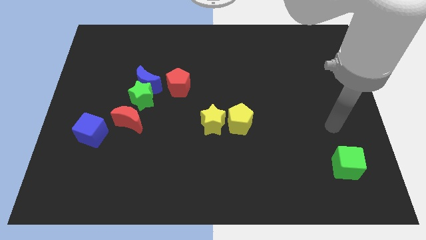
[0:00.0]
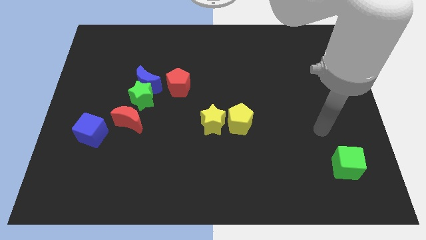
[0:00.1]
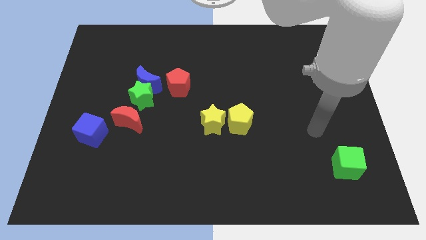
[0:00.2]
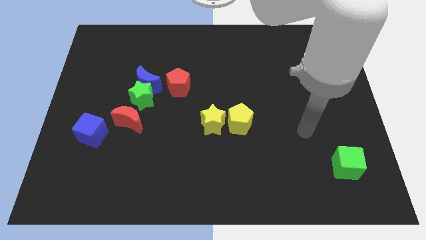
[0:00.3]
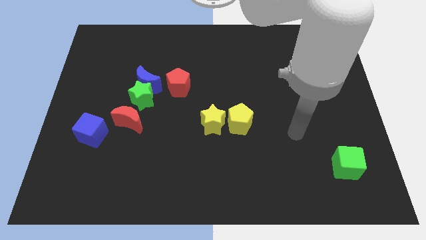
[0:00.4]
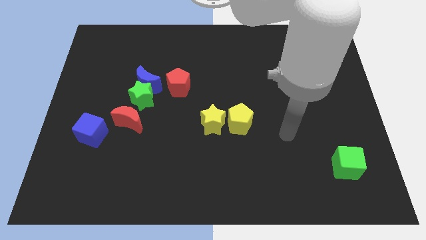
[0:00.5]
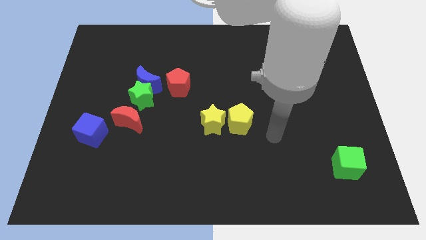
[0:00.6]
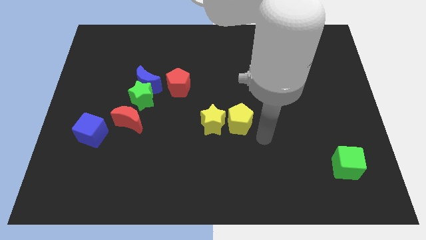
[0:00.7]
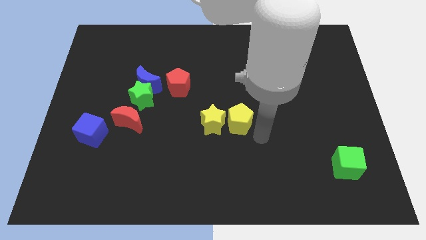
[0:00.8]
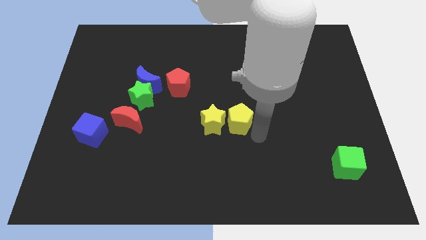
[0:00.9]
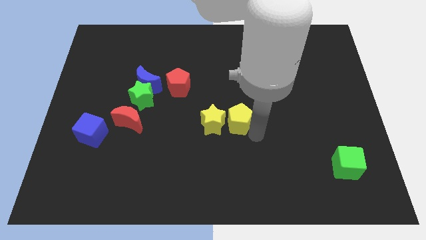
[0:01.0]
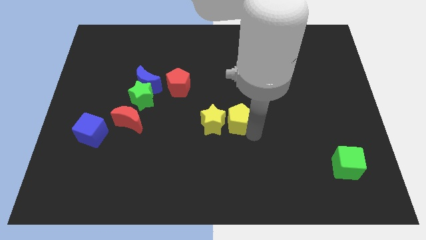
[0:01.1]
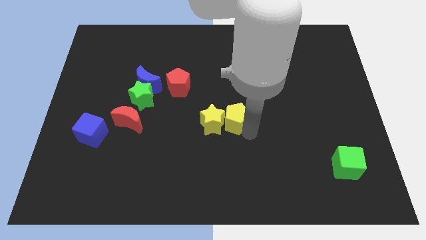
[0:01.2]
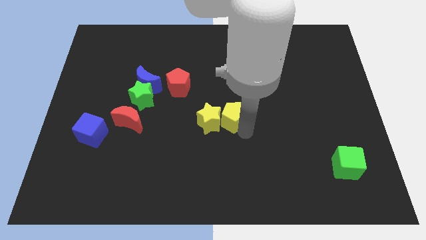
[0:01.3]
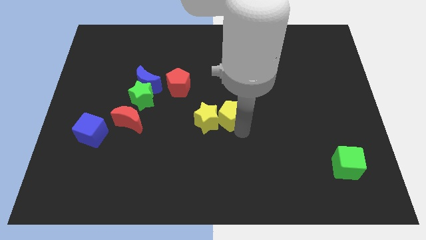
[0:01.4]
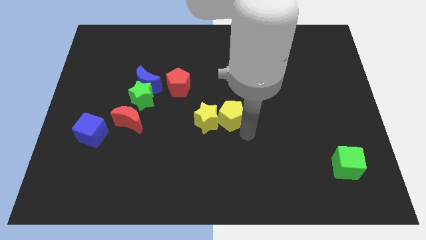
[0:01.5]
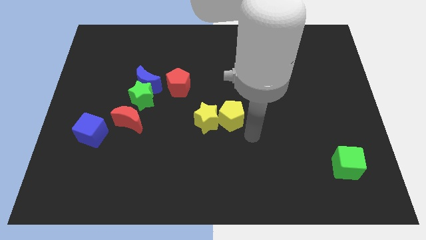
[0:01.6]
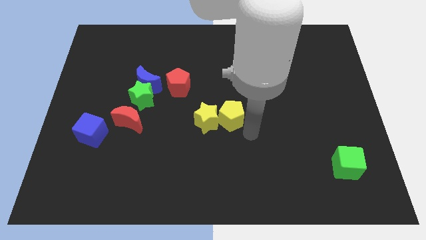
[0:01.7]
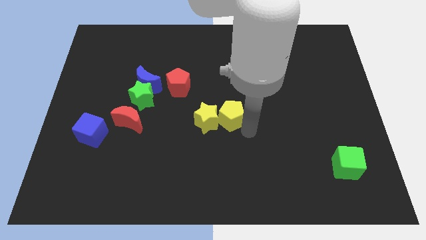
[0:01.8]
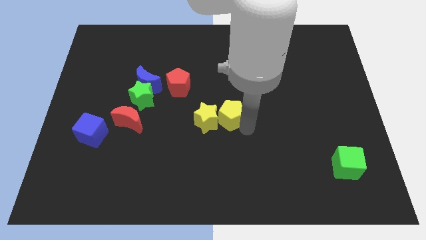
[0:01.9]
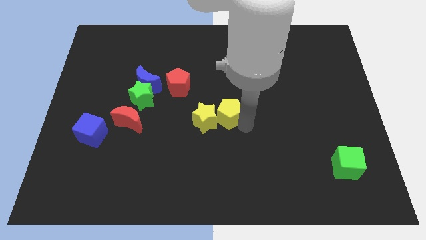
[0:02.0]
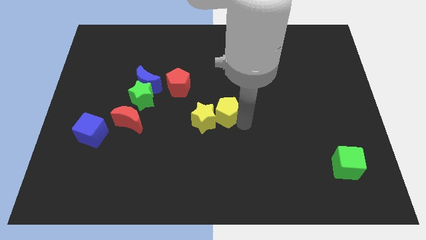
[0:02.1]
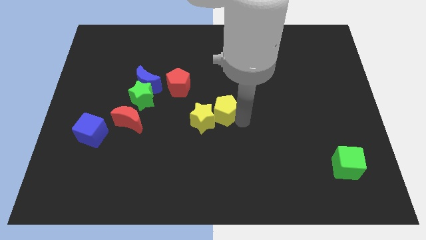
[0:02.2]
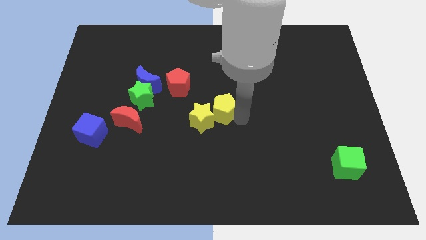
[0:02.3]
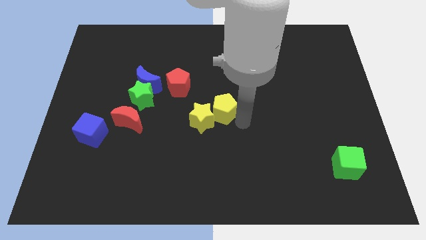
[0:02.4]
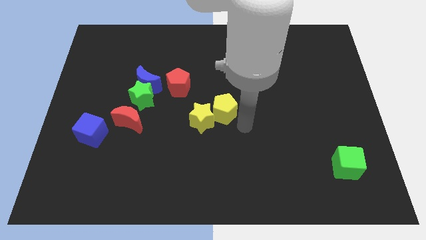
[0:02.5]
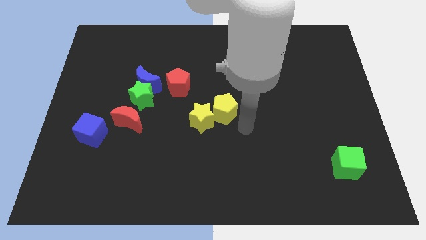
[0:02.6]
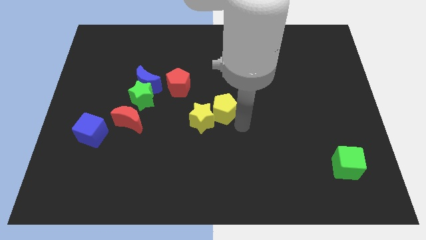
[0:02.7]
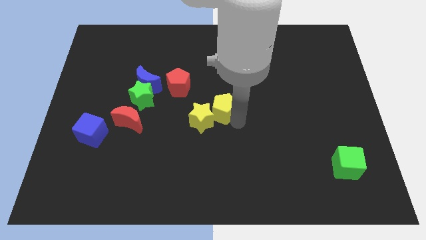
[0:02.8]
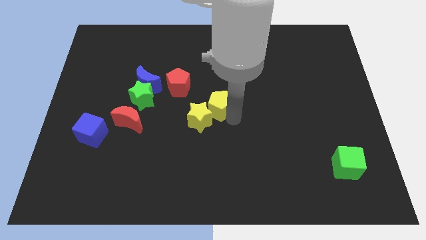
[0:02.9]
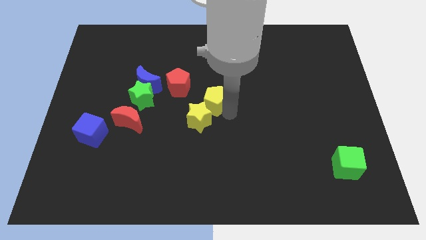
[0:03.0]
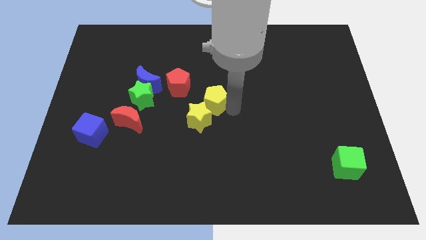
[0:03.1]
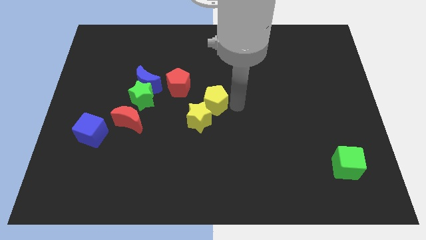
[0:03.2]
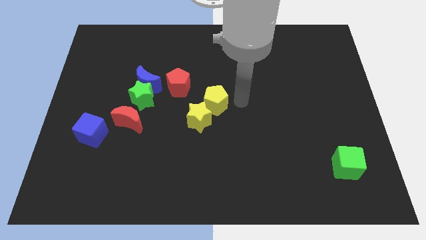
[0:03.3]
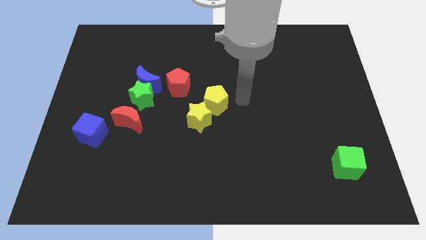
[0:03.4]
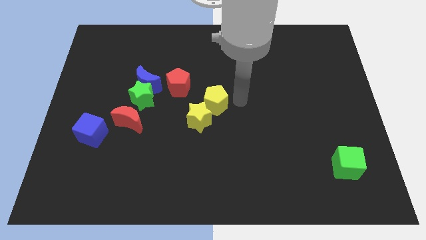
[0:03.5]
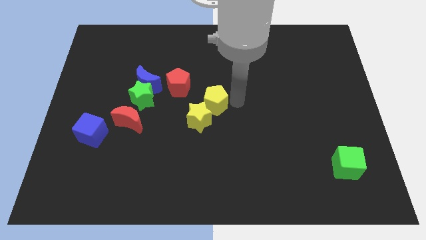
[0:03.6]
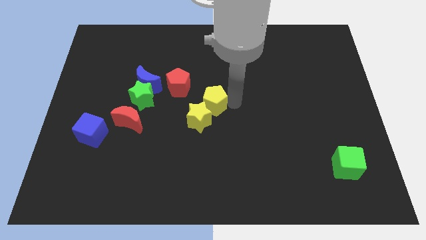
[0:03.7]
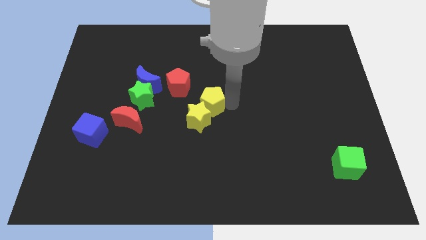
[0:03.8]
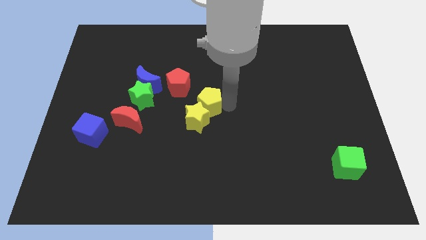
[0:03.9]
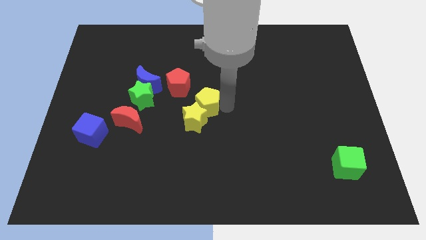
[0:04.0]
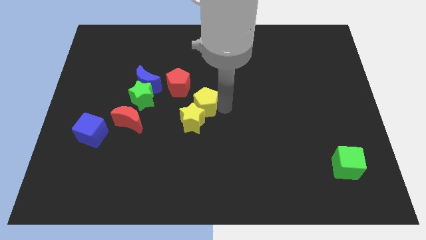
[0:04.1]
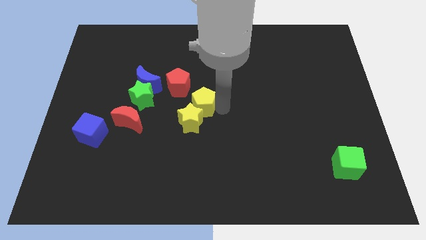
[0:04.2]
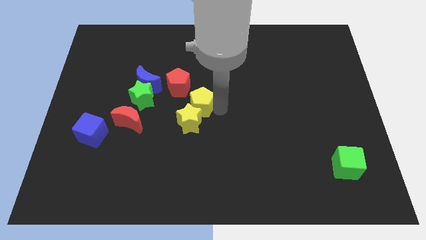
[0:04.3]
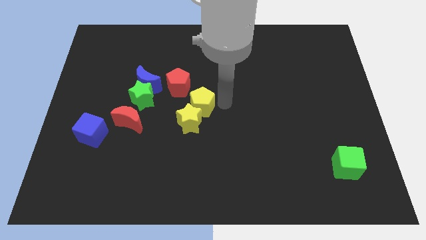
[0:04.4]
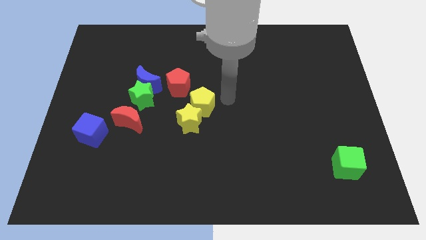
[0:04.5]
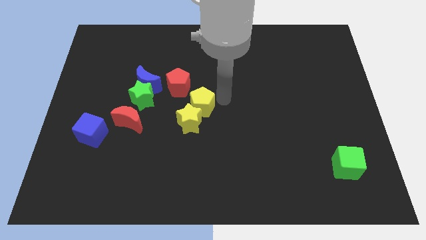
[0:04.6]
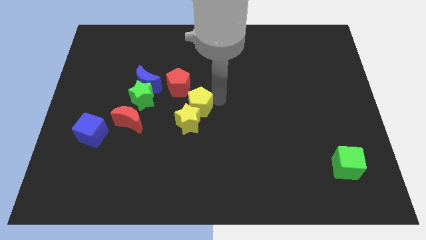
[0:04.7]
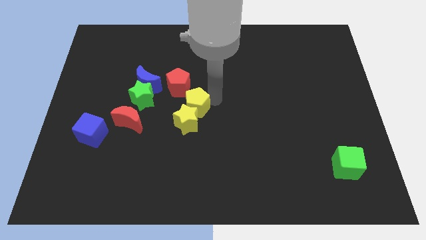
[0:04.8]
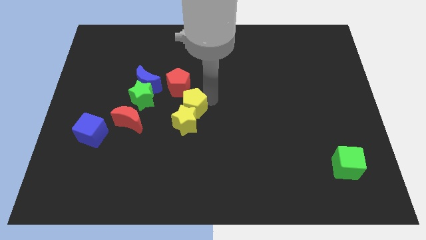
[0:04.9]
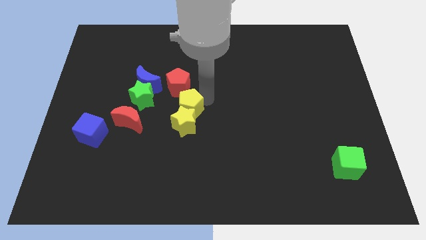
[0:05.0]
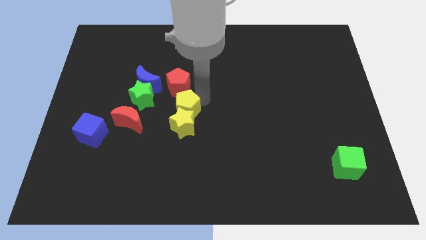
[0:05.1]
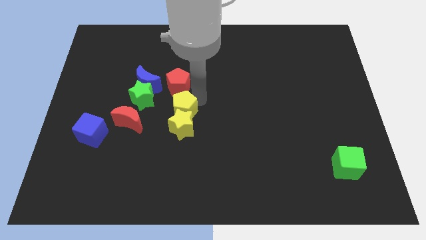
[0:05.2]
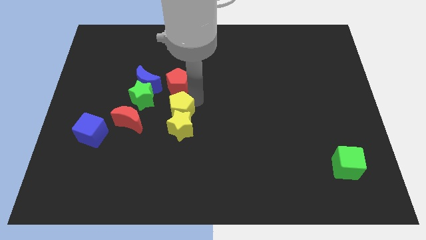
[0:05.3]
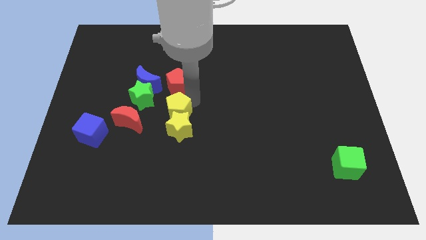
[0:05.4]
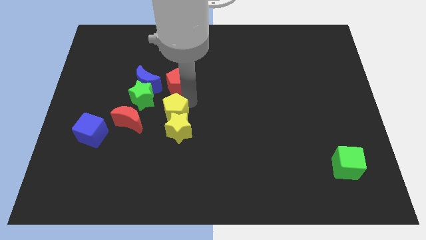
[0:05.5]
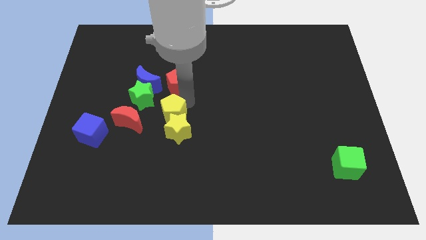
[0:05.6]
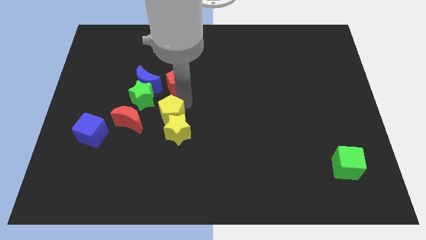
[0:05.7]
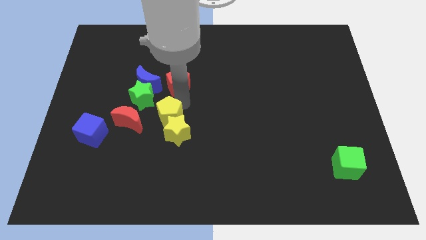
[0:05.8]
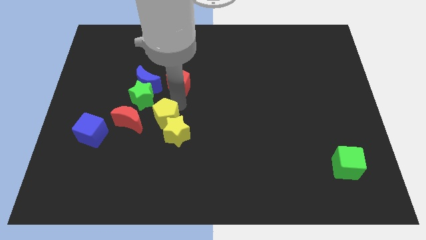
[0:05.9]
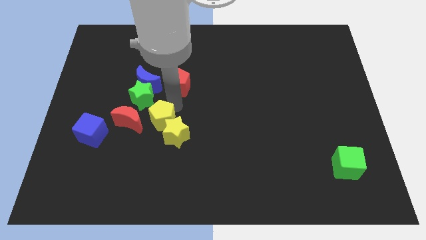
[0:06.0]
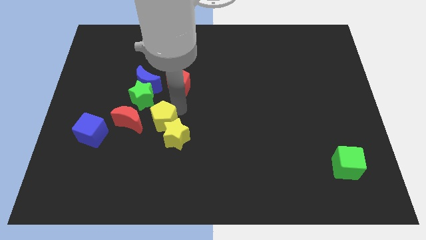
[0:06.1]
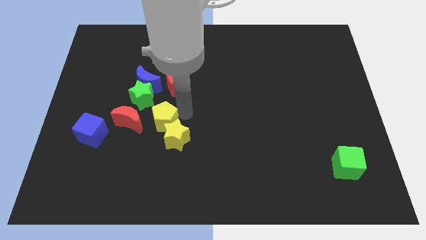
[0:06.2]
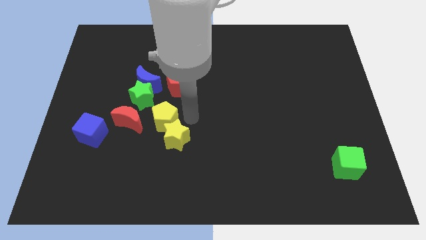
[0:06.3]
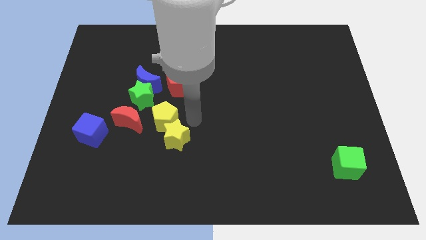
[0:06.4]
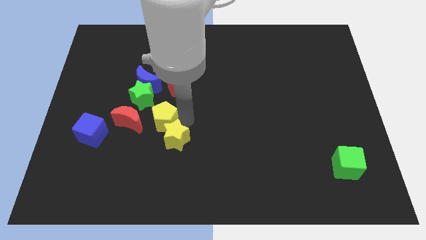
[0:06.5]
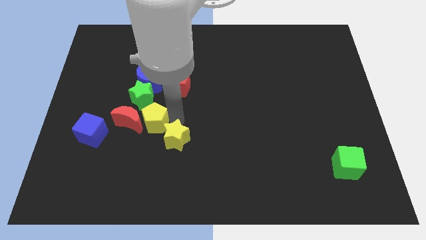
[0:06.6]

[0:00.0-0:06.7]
slide the yellow pentagon towards the red moon

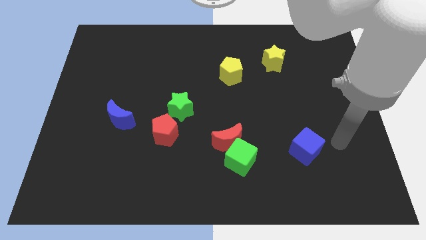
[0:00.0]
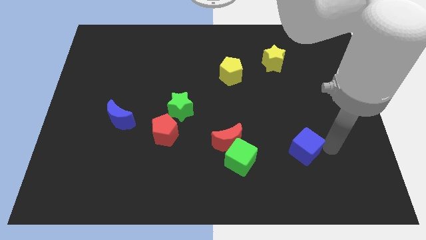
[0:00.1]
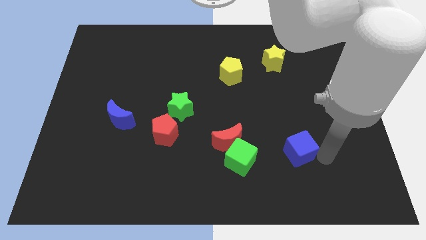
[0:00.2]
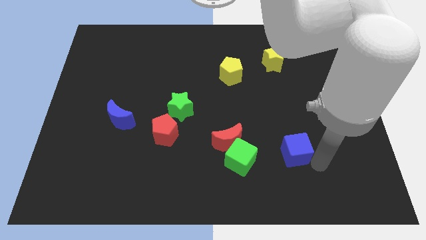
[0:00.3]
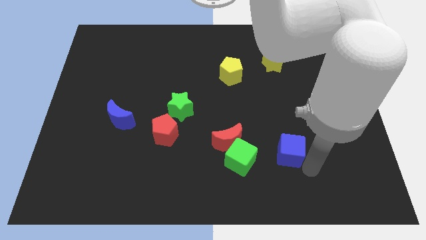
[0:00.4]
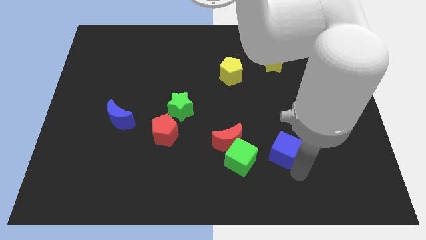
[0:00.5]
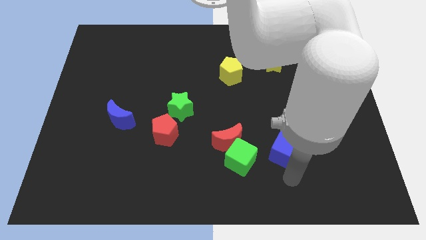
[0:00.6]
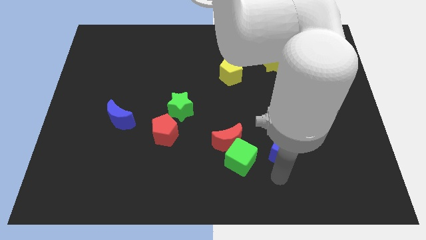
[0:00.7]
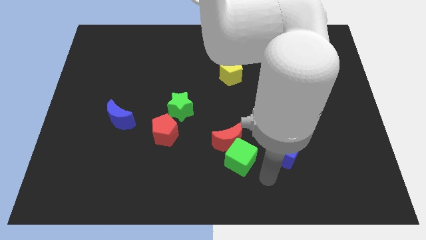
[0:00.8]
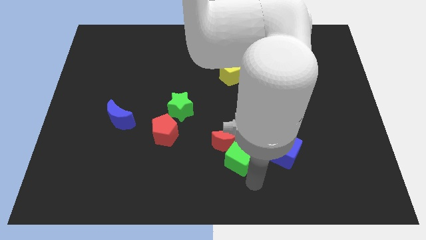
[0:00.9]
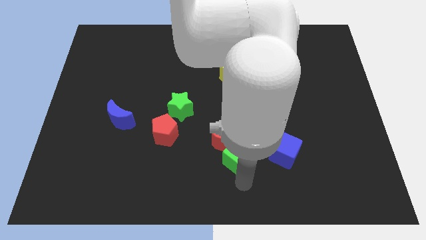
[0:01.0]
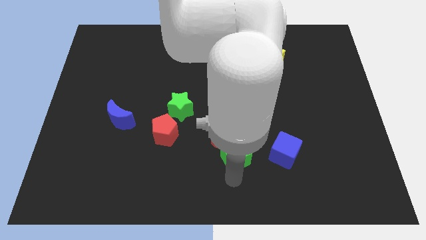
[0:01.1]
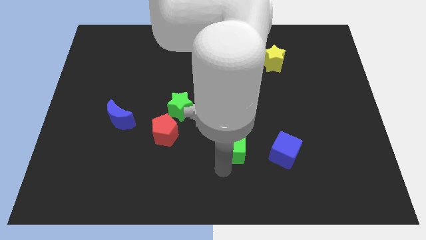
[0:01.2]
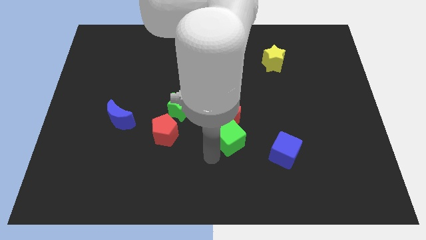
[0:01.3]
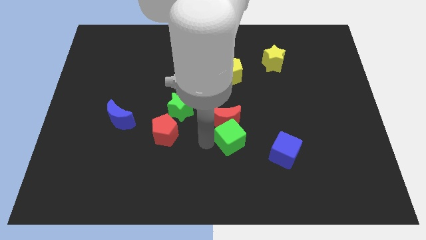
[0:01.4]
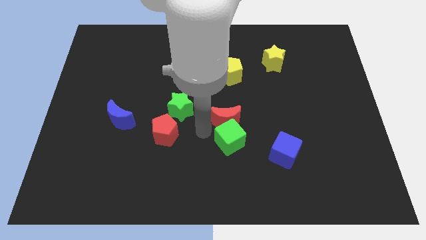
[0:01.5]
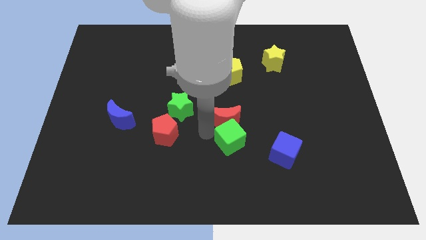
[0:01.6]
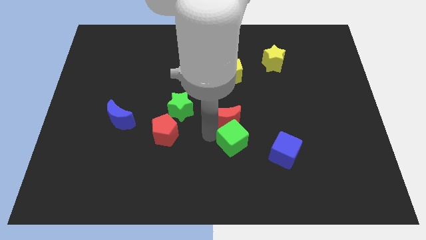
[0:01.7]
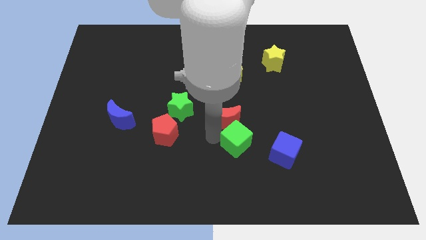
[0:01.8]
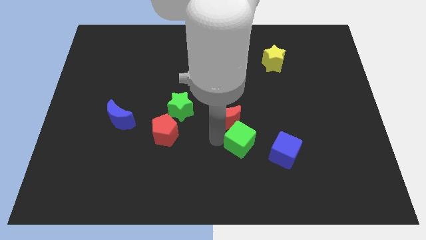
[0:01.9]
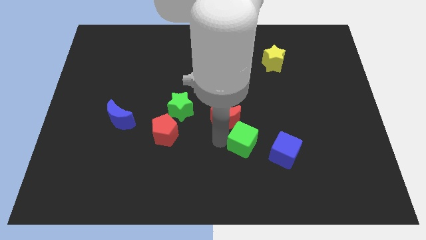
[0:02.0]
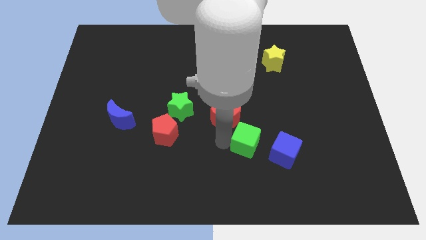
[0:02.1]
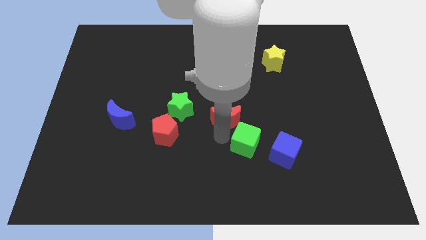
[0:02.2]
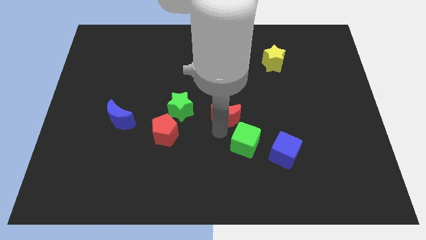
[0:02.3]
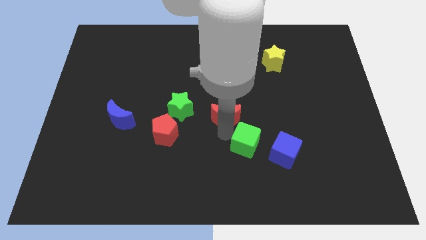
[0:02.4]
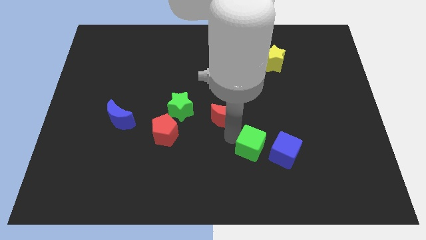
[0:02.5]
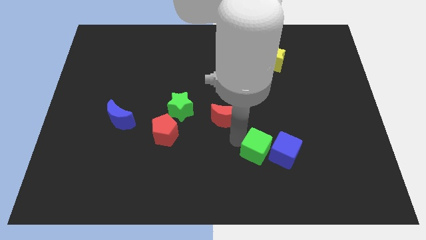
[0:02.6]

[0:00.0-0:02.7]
move the green cube next to the blue cube
